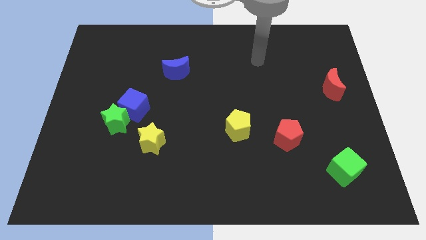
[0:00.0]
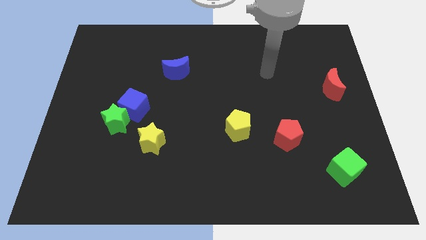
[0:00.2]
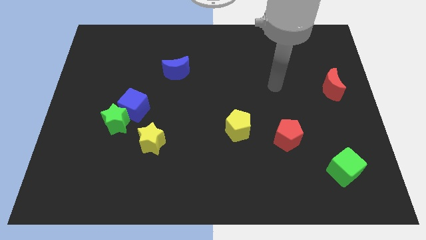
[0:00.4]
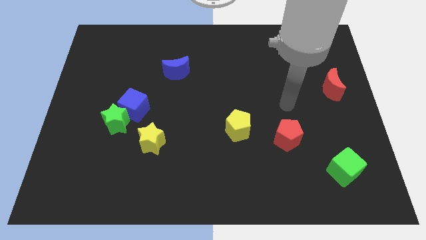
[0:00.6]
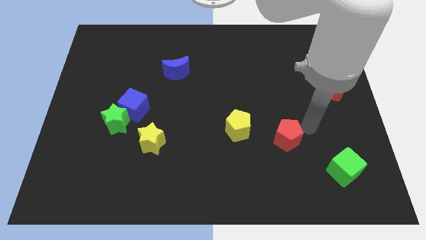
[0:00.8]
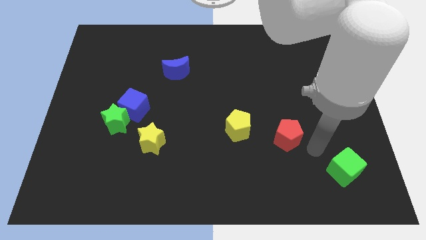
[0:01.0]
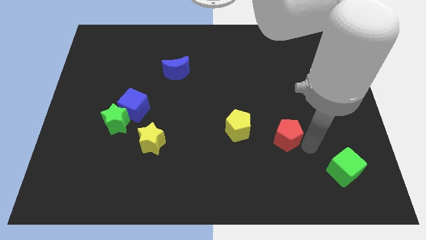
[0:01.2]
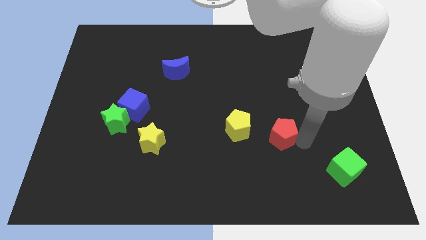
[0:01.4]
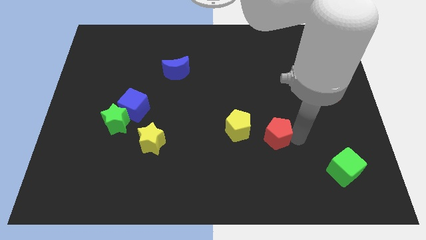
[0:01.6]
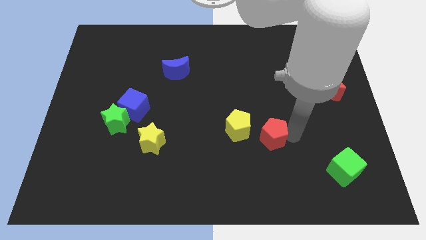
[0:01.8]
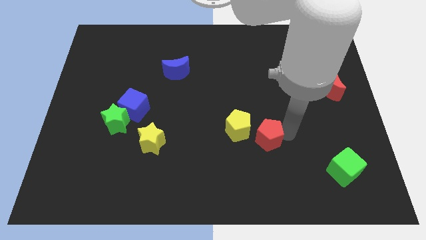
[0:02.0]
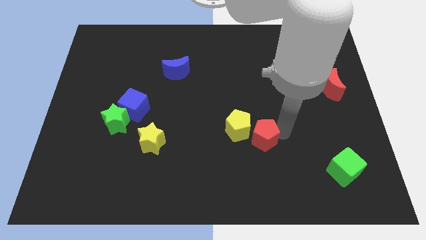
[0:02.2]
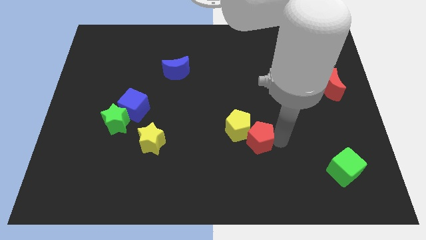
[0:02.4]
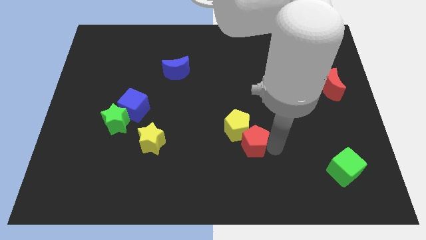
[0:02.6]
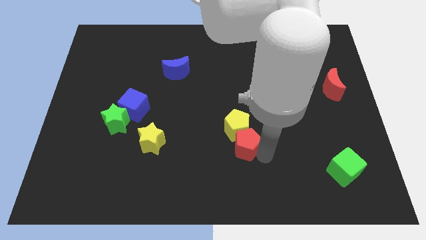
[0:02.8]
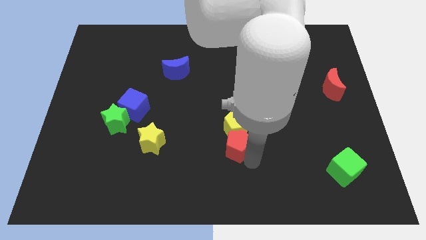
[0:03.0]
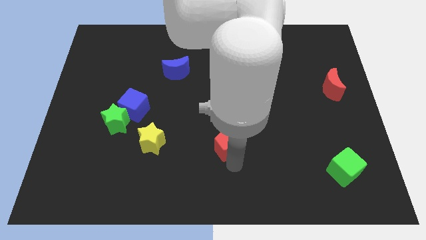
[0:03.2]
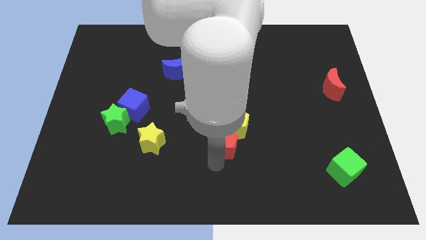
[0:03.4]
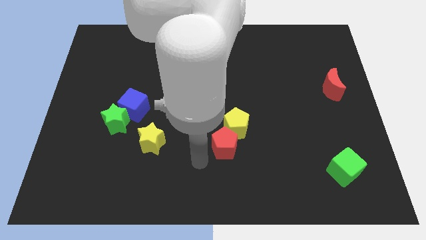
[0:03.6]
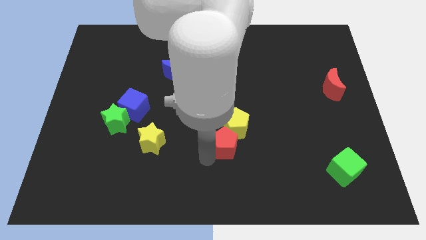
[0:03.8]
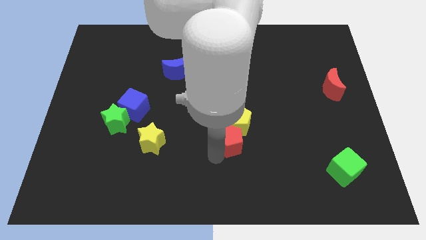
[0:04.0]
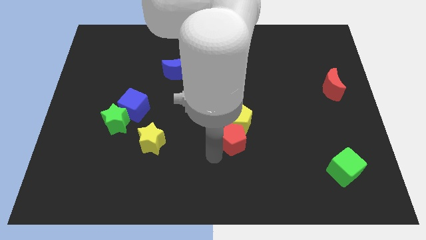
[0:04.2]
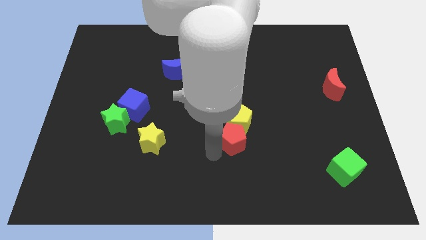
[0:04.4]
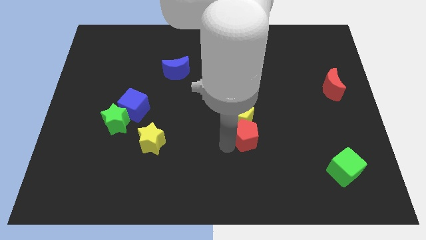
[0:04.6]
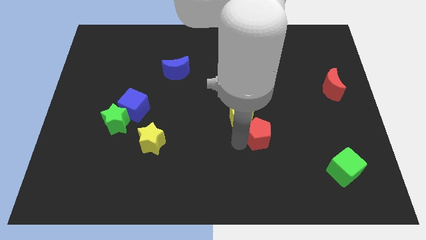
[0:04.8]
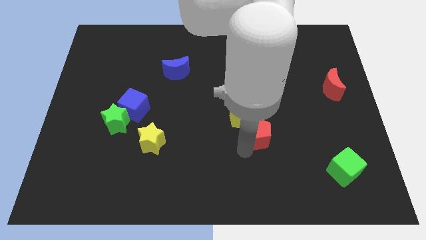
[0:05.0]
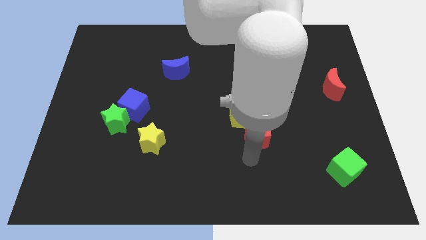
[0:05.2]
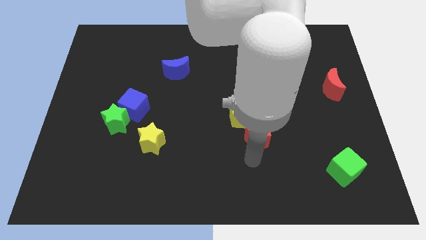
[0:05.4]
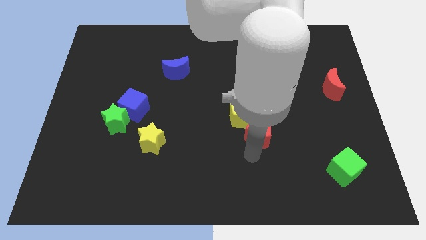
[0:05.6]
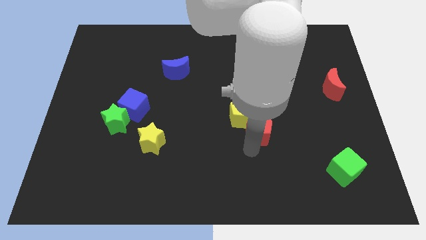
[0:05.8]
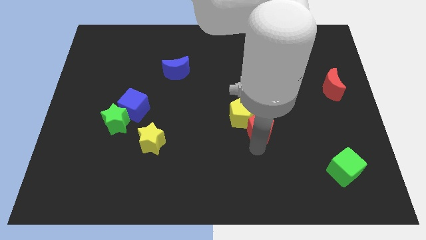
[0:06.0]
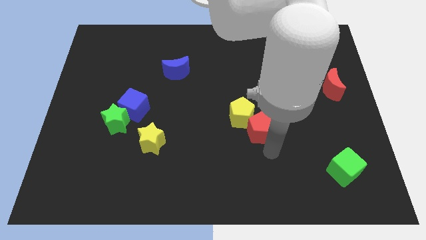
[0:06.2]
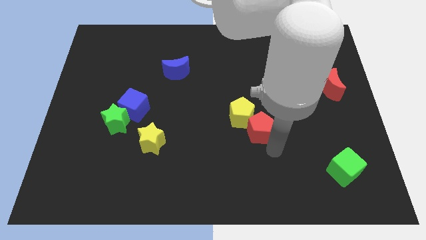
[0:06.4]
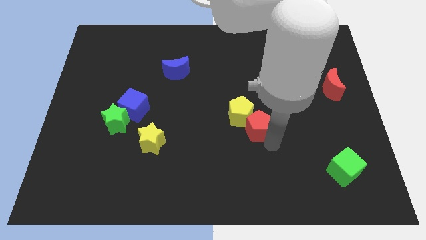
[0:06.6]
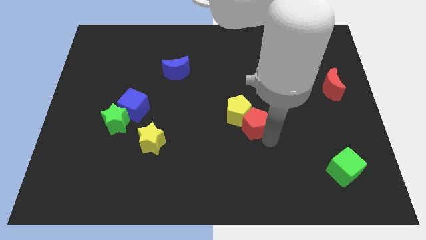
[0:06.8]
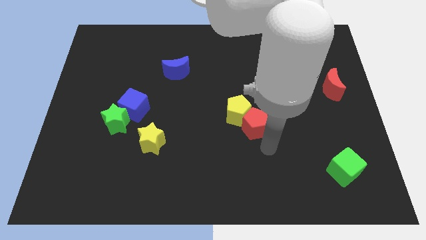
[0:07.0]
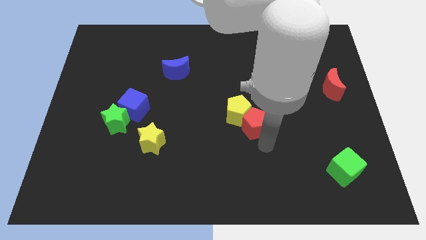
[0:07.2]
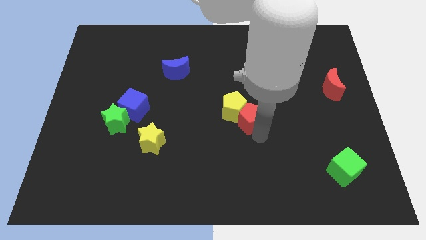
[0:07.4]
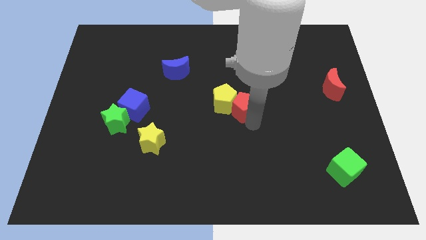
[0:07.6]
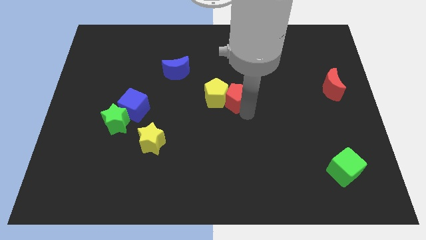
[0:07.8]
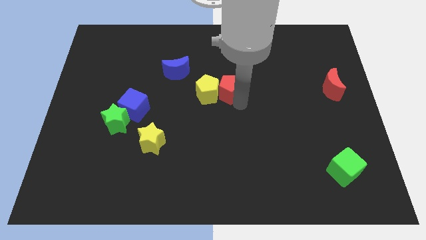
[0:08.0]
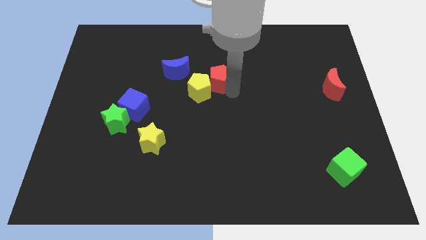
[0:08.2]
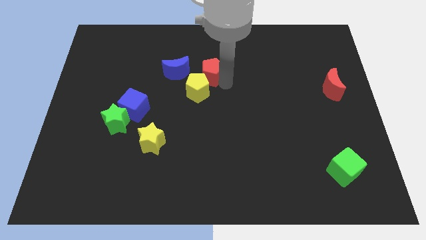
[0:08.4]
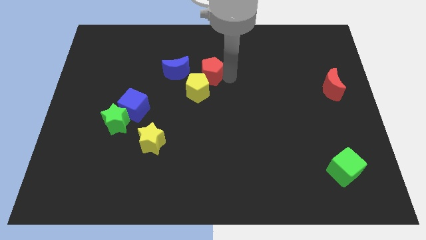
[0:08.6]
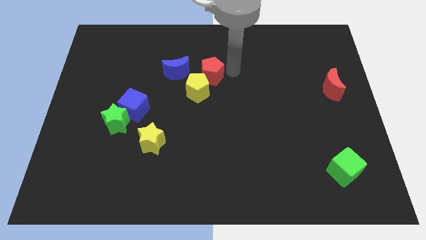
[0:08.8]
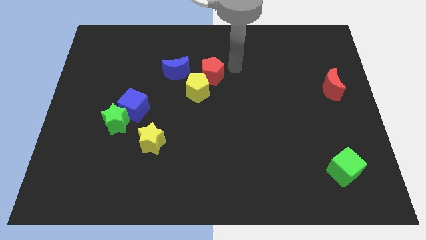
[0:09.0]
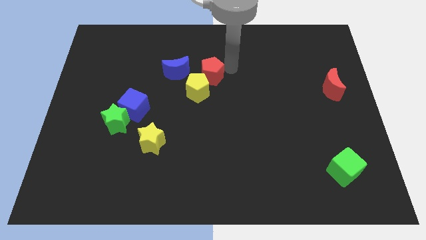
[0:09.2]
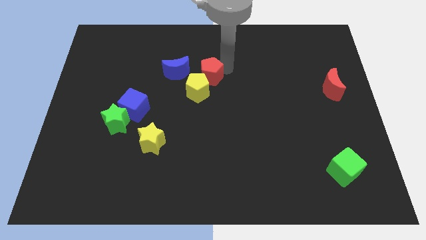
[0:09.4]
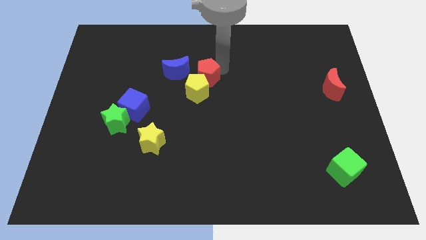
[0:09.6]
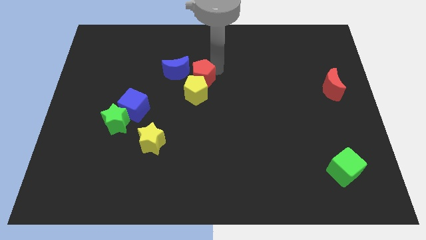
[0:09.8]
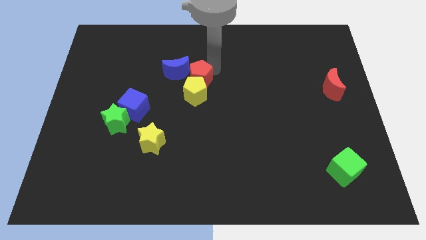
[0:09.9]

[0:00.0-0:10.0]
move the red pentagon to the blue moon

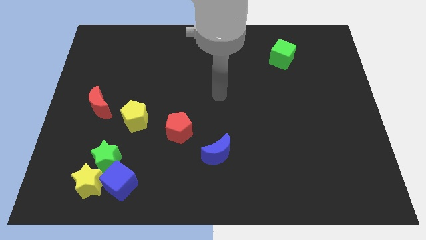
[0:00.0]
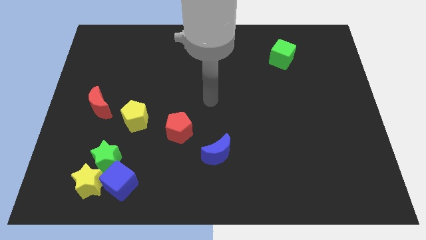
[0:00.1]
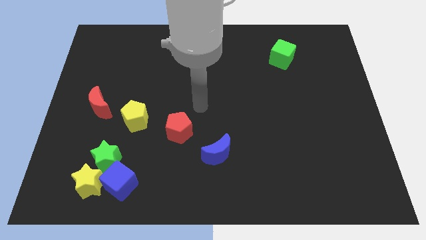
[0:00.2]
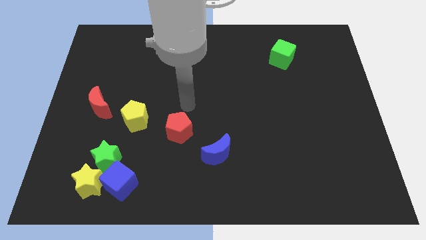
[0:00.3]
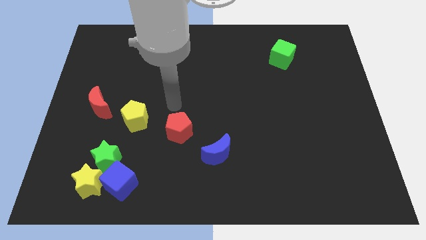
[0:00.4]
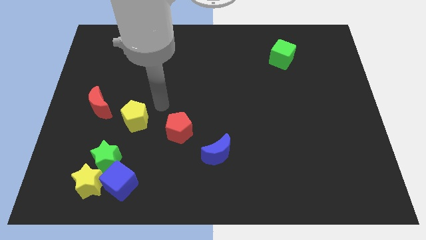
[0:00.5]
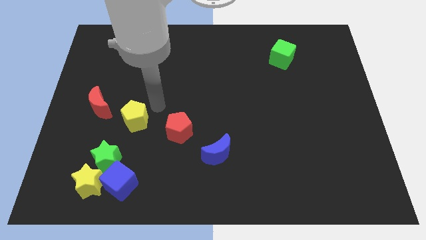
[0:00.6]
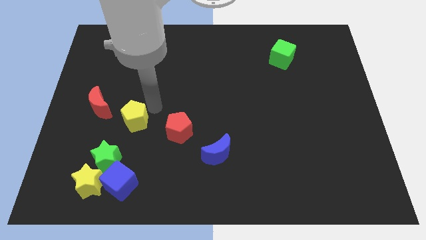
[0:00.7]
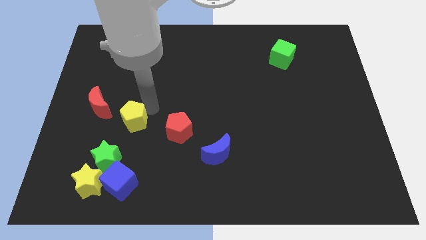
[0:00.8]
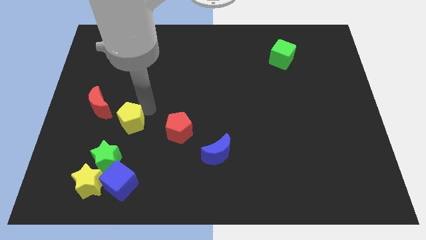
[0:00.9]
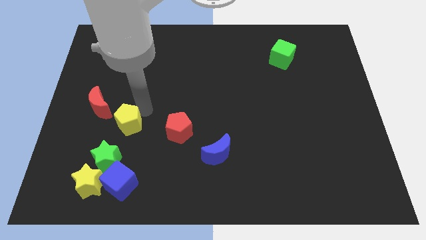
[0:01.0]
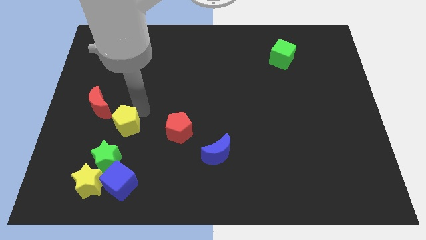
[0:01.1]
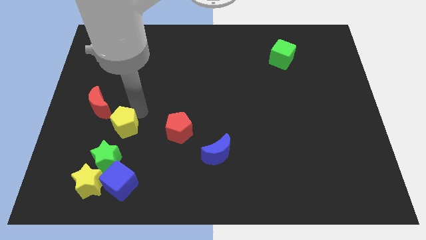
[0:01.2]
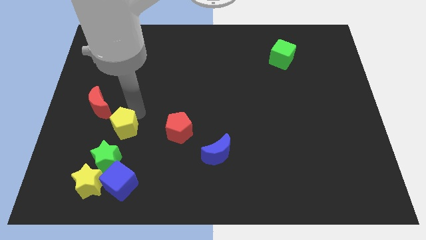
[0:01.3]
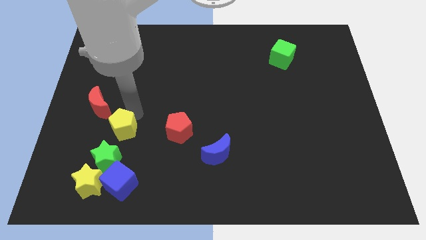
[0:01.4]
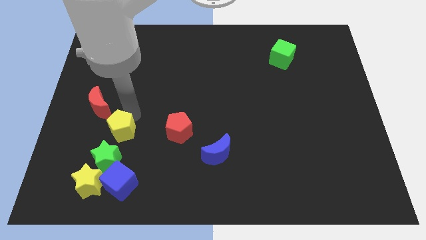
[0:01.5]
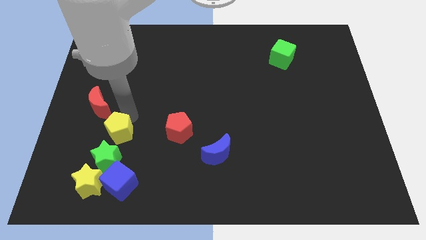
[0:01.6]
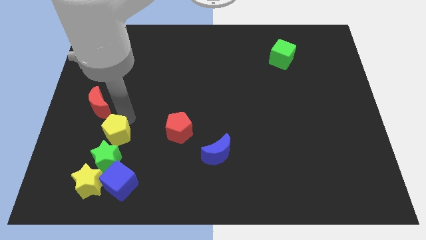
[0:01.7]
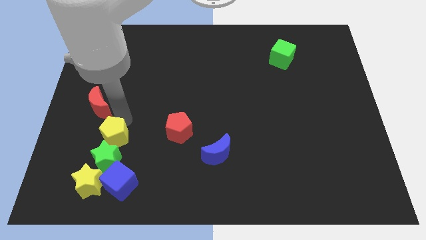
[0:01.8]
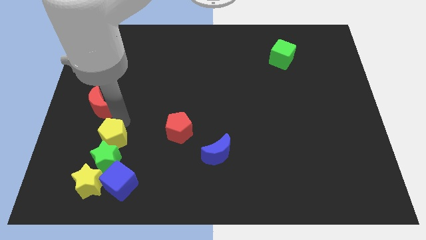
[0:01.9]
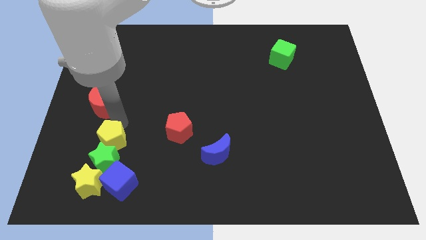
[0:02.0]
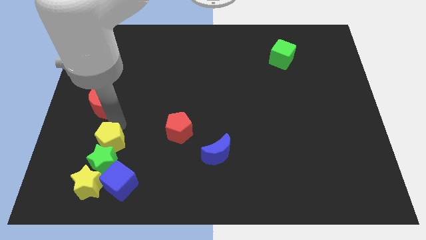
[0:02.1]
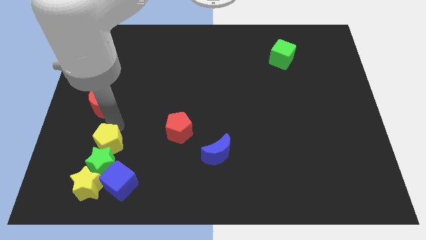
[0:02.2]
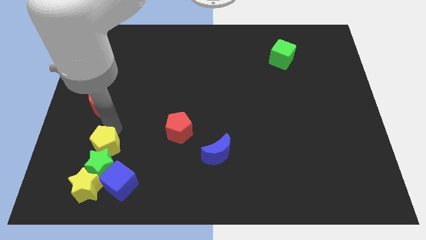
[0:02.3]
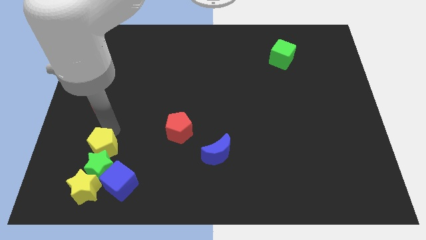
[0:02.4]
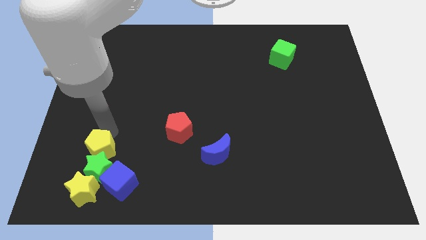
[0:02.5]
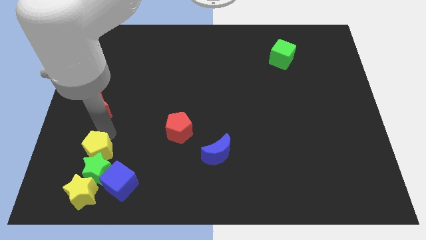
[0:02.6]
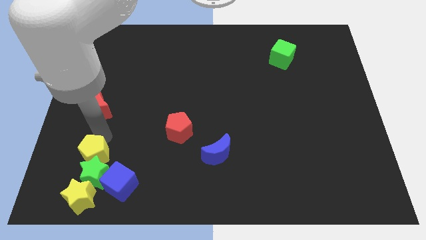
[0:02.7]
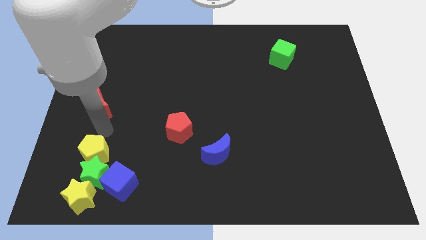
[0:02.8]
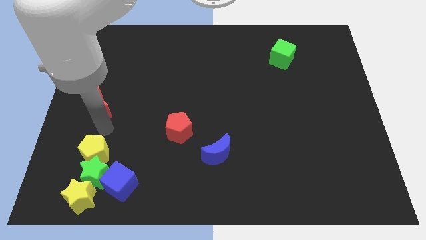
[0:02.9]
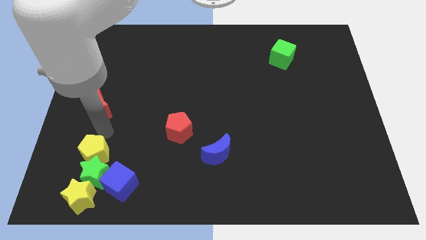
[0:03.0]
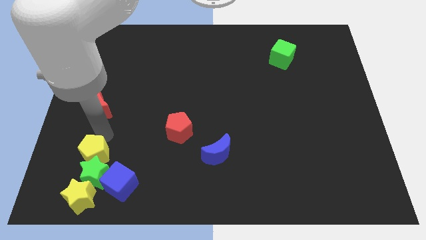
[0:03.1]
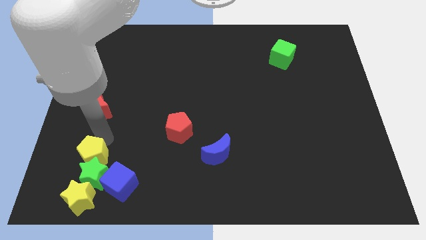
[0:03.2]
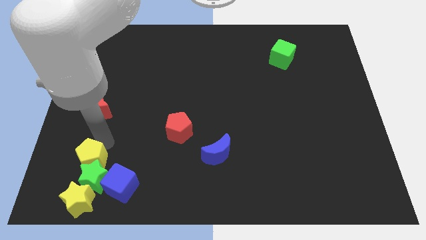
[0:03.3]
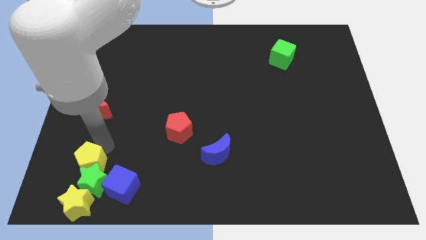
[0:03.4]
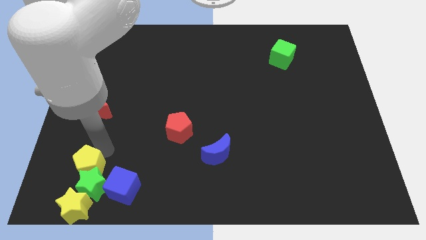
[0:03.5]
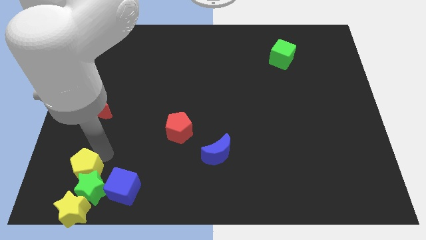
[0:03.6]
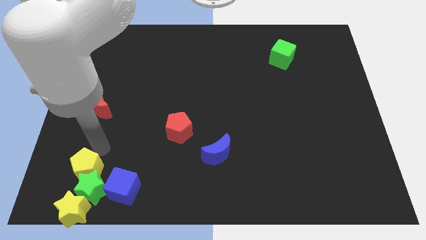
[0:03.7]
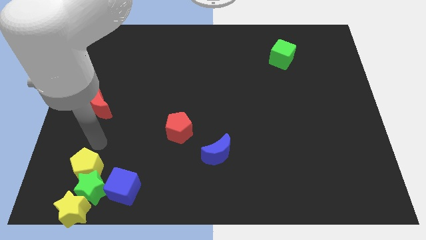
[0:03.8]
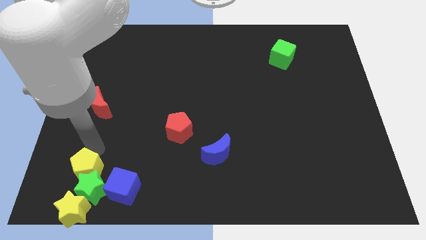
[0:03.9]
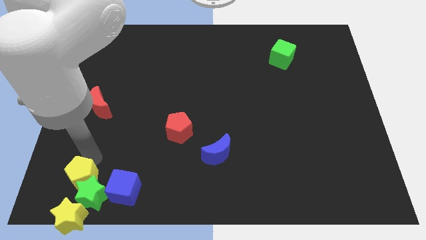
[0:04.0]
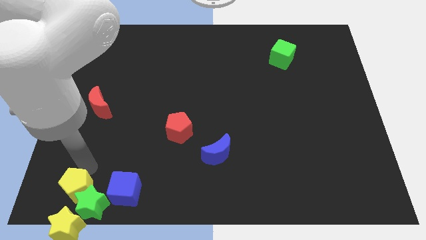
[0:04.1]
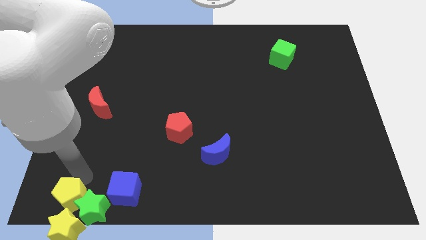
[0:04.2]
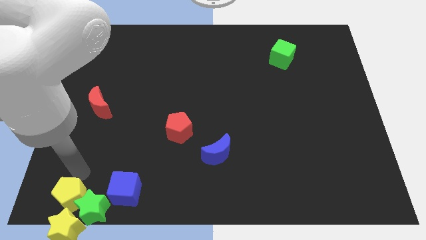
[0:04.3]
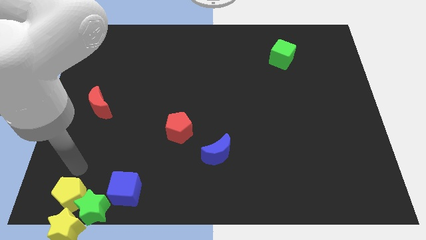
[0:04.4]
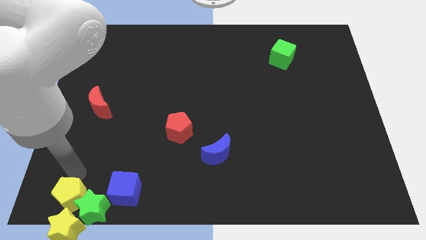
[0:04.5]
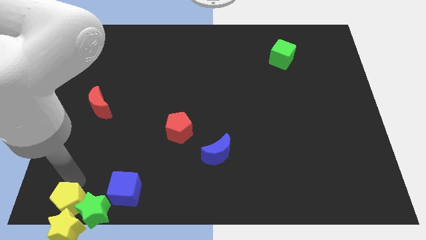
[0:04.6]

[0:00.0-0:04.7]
put the yellow pentagon towards the yellow star
